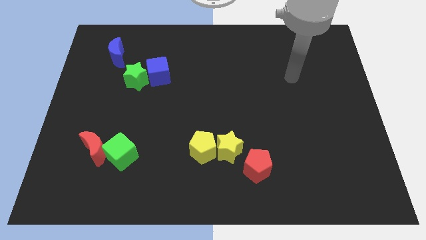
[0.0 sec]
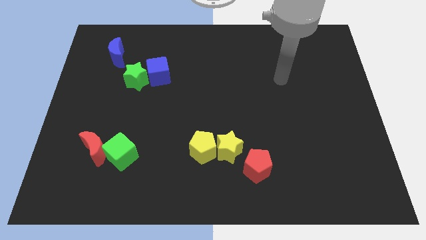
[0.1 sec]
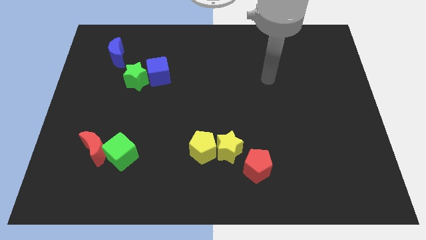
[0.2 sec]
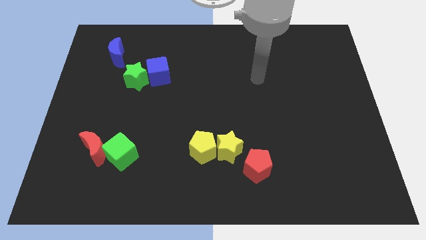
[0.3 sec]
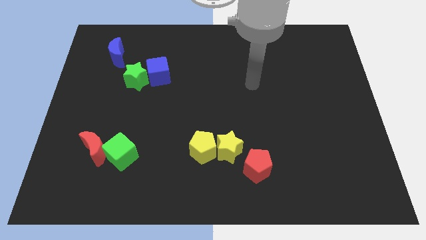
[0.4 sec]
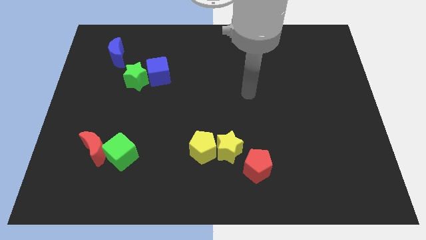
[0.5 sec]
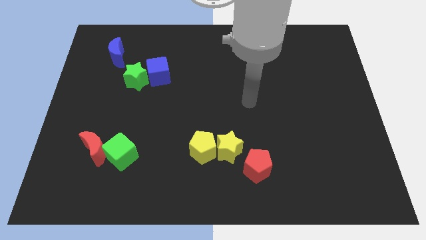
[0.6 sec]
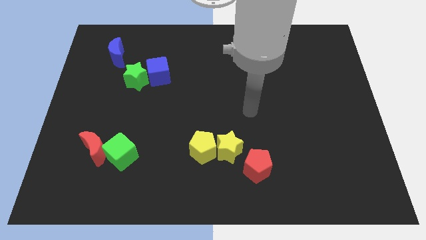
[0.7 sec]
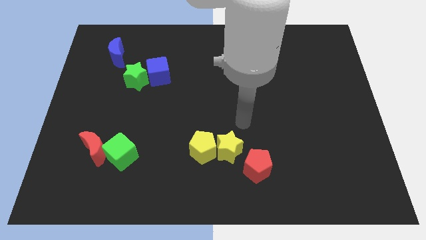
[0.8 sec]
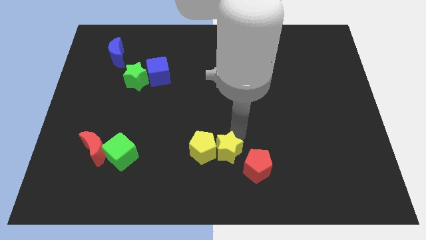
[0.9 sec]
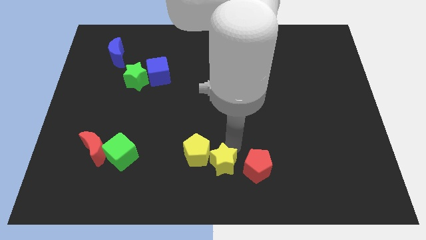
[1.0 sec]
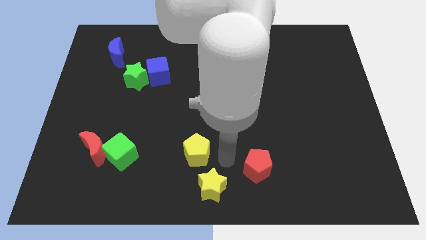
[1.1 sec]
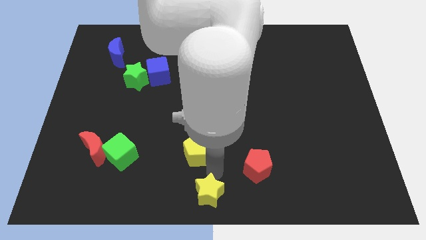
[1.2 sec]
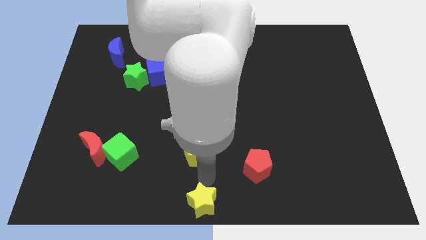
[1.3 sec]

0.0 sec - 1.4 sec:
pull the yellow pentagon apart from the yellow star

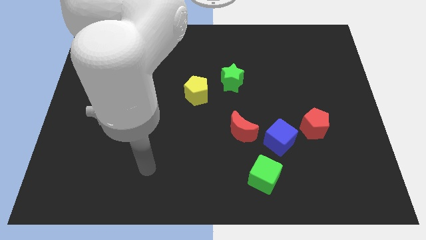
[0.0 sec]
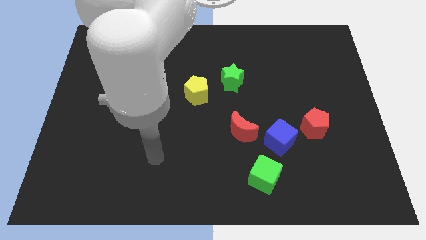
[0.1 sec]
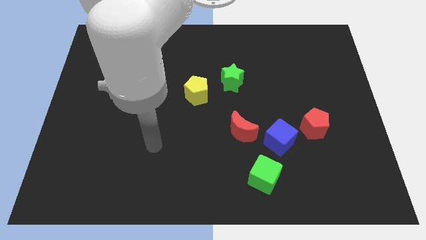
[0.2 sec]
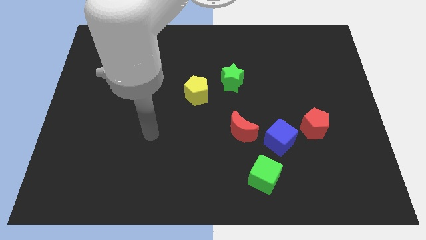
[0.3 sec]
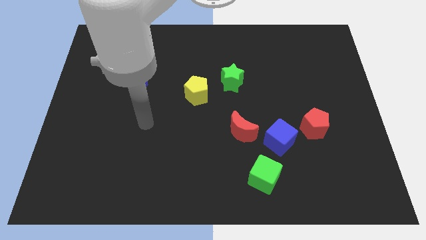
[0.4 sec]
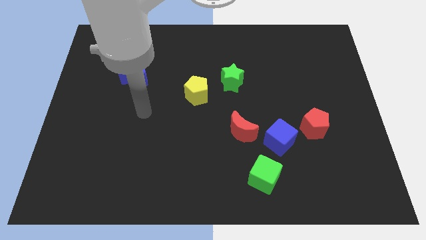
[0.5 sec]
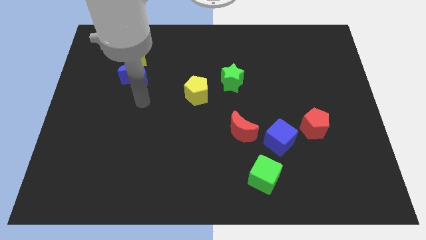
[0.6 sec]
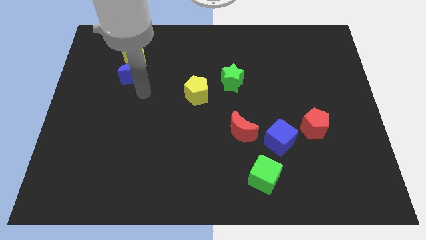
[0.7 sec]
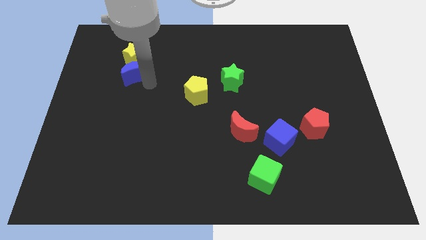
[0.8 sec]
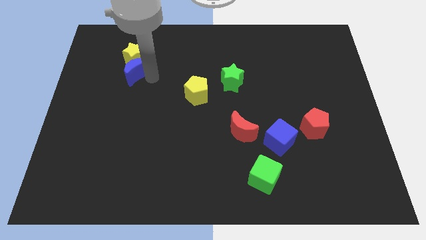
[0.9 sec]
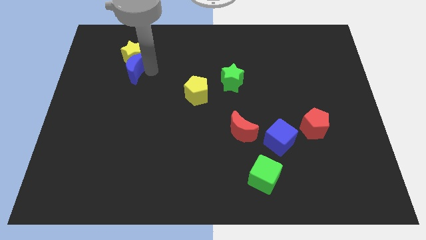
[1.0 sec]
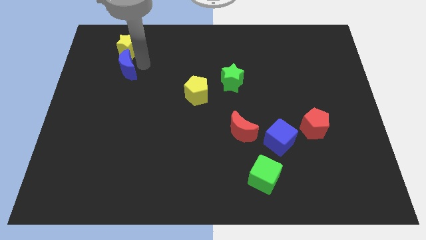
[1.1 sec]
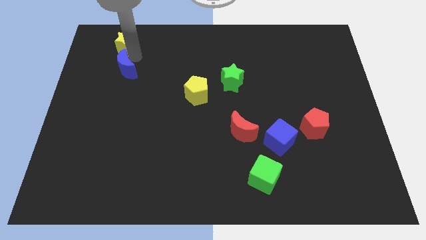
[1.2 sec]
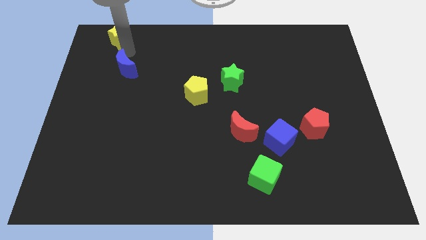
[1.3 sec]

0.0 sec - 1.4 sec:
pull the blue moon apart from the yellow star

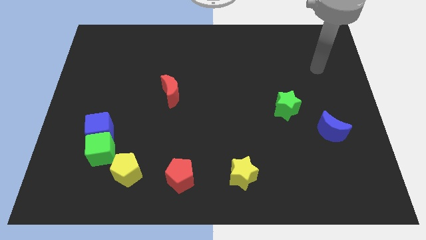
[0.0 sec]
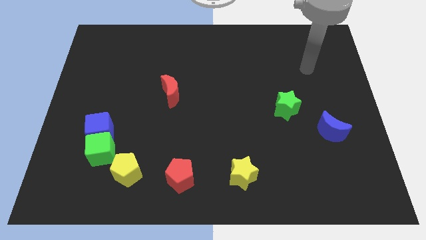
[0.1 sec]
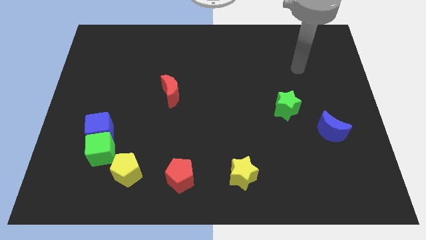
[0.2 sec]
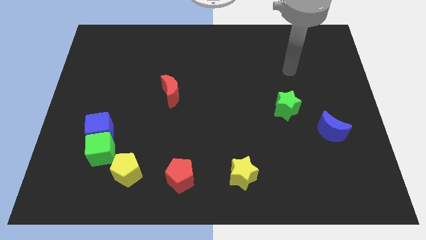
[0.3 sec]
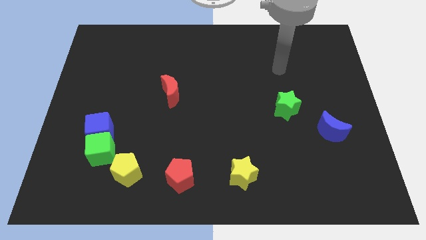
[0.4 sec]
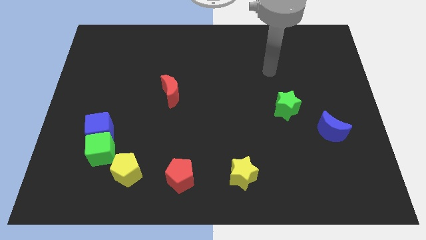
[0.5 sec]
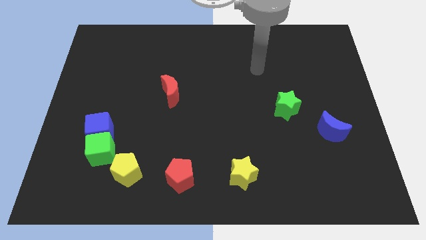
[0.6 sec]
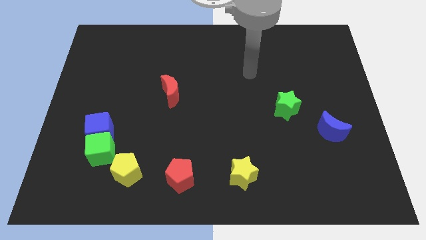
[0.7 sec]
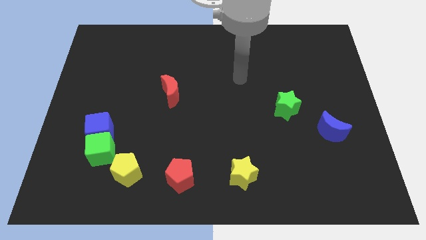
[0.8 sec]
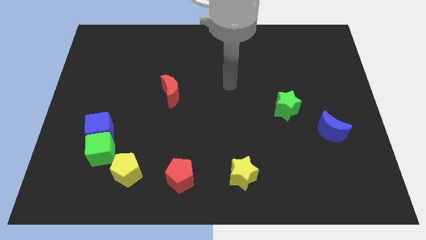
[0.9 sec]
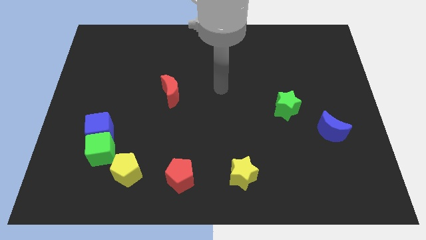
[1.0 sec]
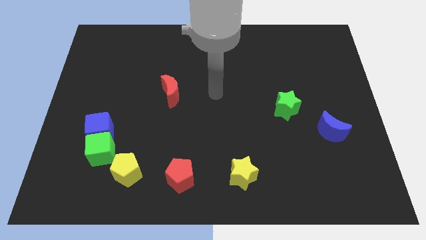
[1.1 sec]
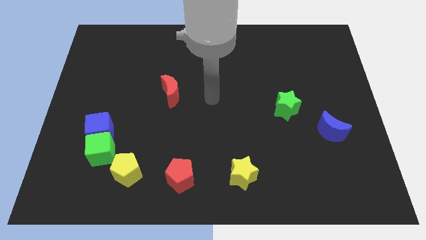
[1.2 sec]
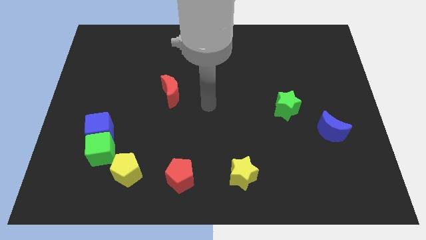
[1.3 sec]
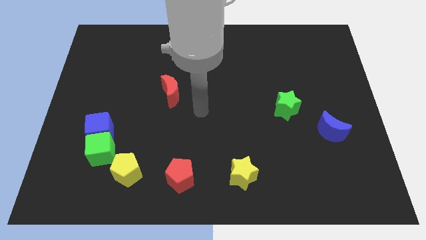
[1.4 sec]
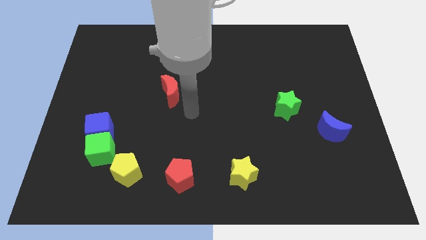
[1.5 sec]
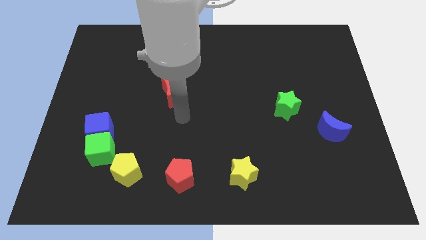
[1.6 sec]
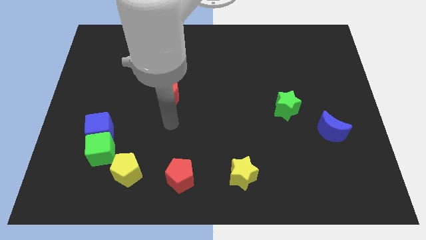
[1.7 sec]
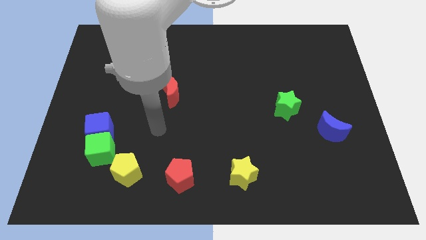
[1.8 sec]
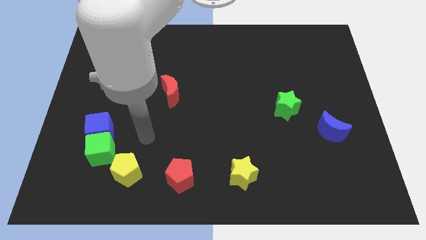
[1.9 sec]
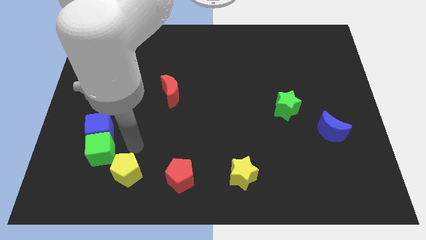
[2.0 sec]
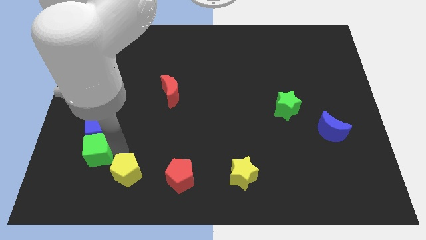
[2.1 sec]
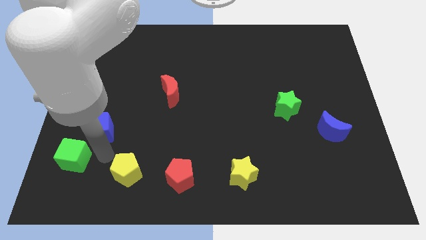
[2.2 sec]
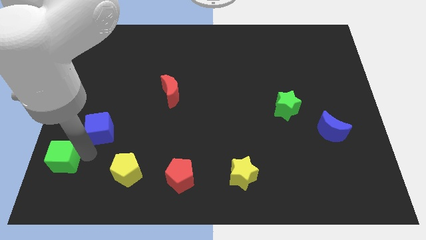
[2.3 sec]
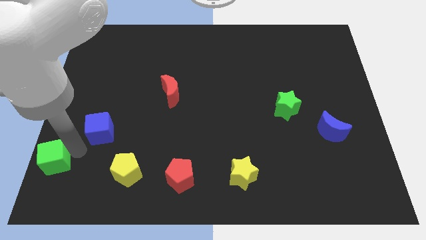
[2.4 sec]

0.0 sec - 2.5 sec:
pull the blue cube apart from the green cube

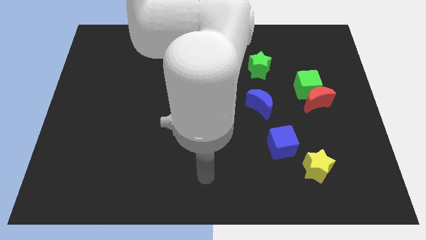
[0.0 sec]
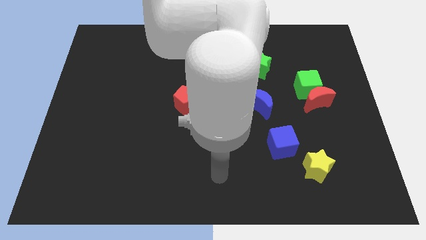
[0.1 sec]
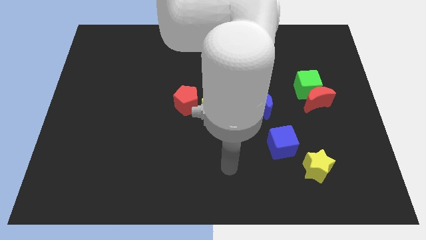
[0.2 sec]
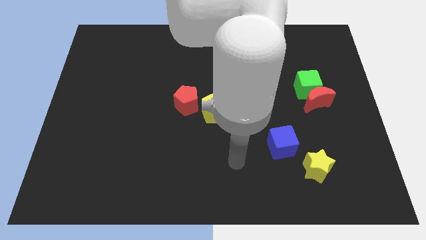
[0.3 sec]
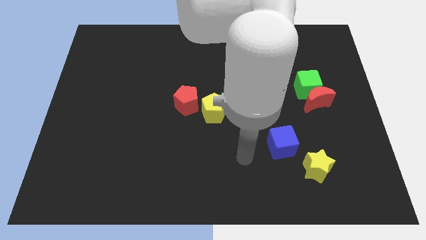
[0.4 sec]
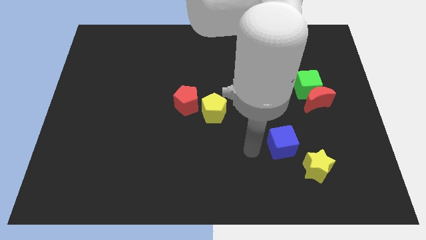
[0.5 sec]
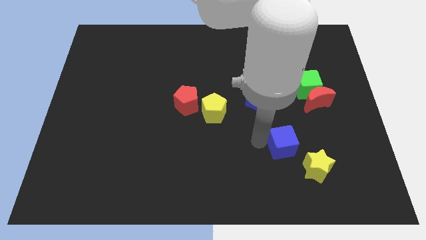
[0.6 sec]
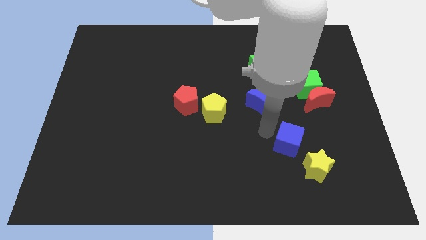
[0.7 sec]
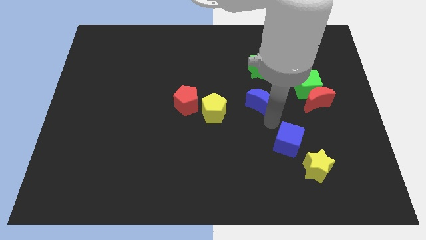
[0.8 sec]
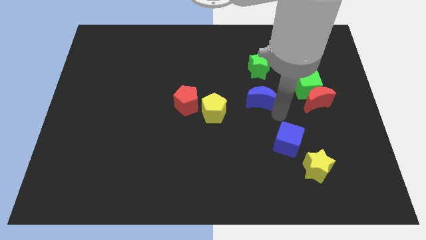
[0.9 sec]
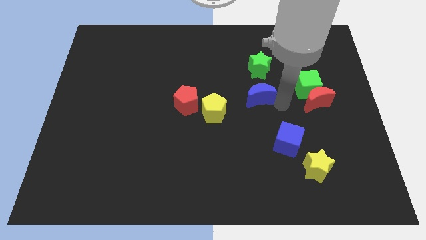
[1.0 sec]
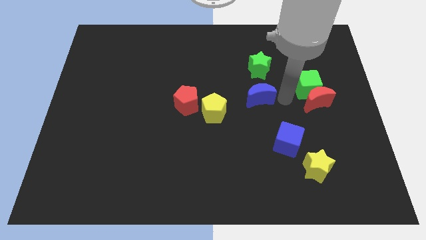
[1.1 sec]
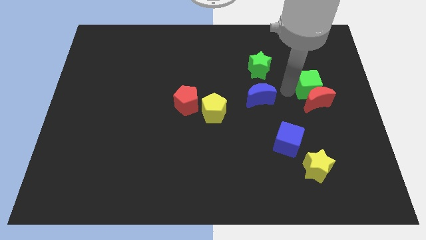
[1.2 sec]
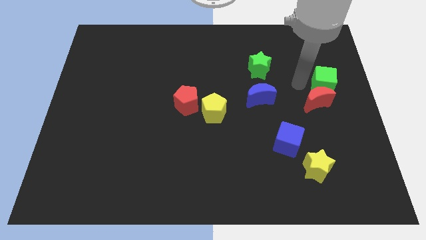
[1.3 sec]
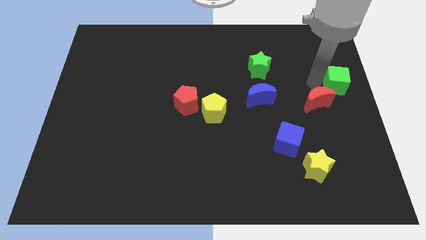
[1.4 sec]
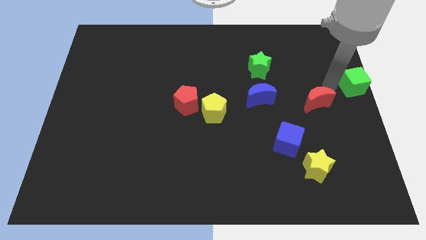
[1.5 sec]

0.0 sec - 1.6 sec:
separate the red moon from the green cube

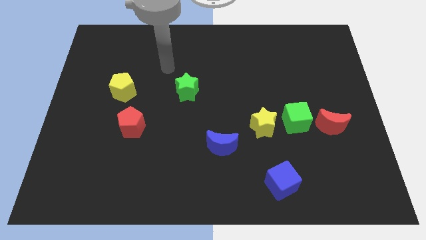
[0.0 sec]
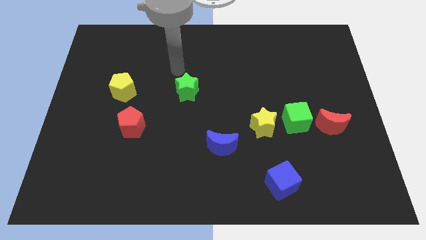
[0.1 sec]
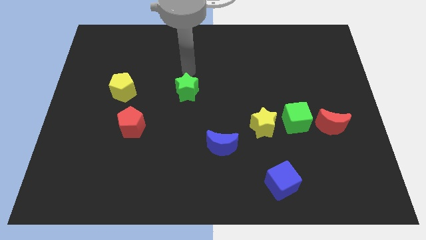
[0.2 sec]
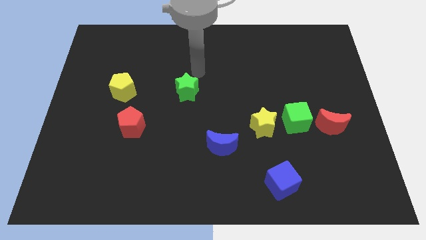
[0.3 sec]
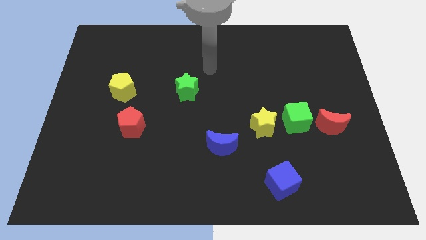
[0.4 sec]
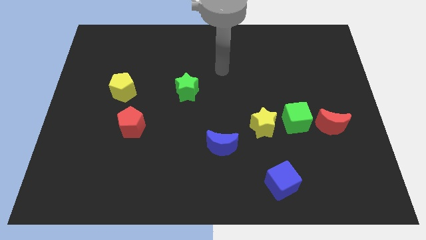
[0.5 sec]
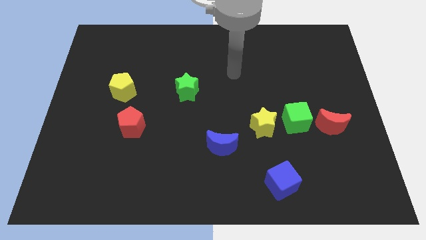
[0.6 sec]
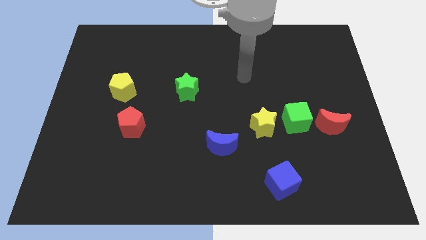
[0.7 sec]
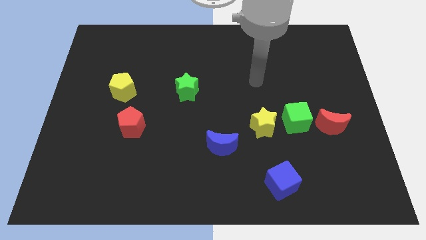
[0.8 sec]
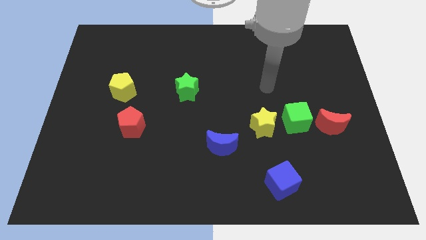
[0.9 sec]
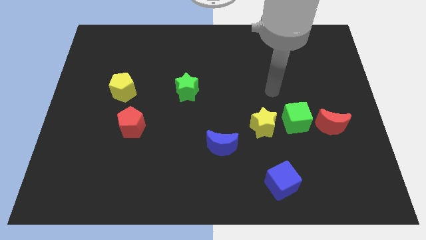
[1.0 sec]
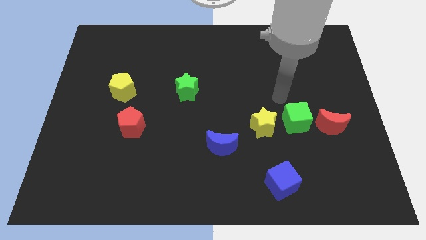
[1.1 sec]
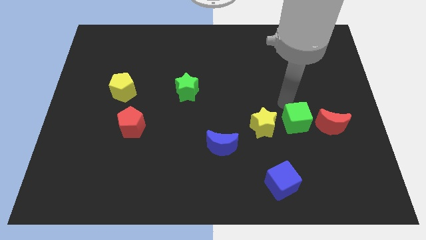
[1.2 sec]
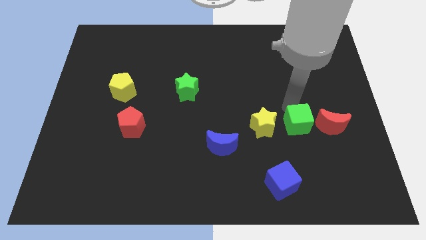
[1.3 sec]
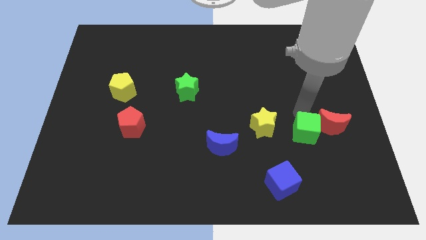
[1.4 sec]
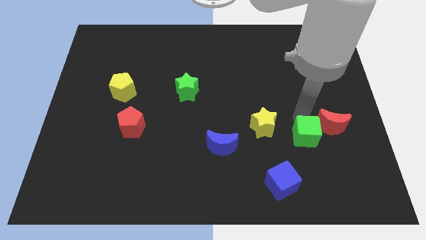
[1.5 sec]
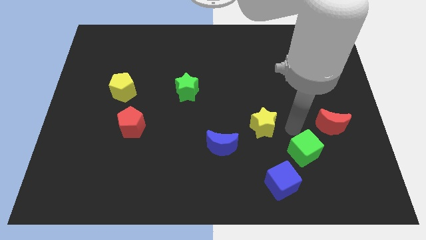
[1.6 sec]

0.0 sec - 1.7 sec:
pull the yellow star apart from the green cube

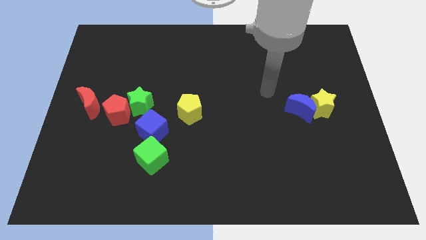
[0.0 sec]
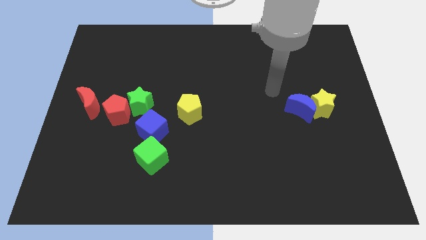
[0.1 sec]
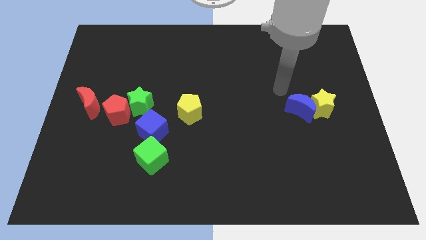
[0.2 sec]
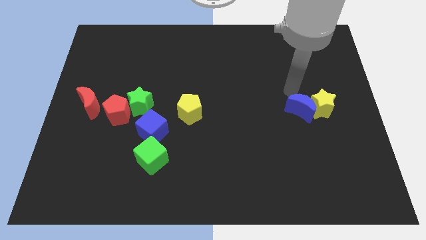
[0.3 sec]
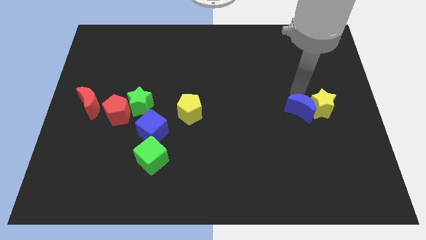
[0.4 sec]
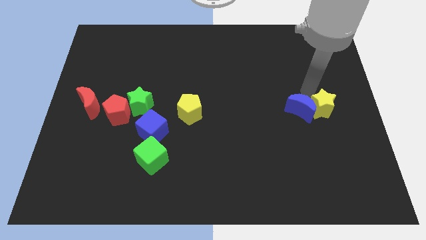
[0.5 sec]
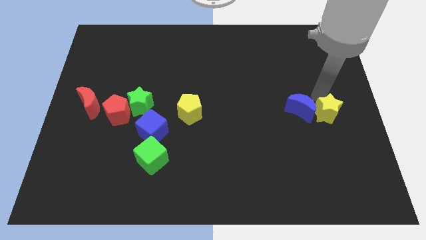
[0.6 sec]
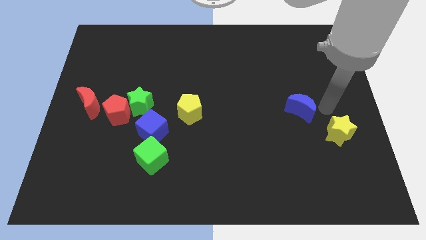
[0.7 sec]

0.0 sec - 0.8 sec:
move the blue moon away from the yellow star
